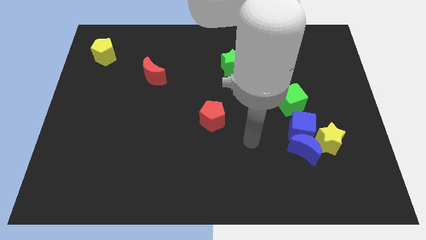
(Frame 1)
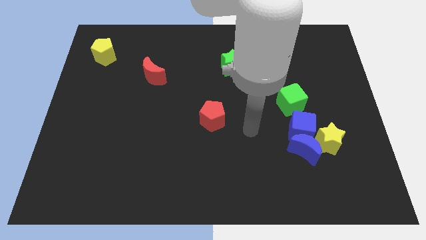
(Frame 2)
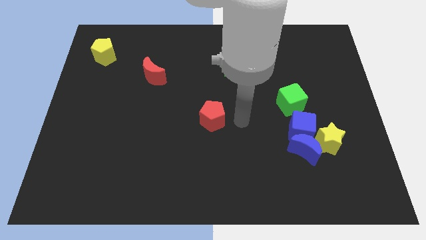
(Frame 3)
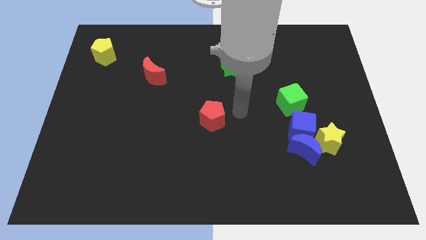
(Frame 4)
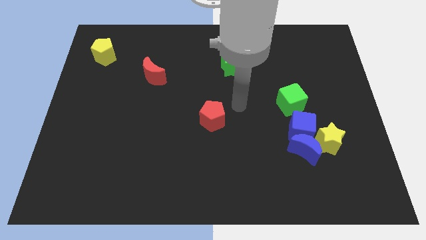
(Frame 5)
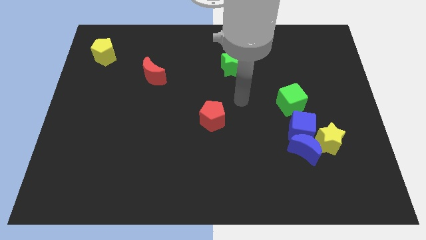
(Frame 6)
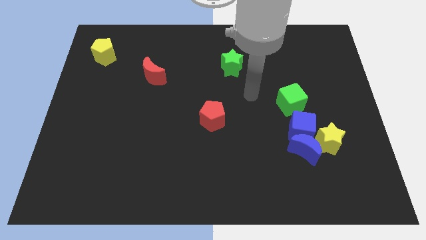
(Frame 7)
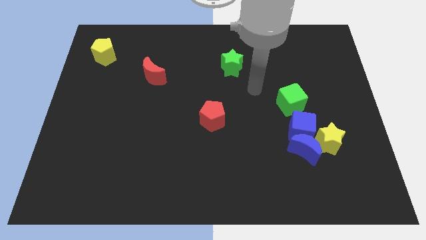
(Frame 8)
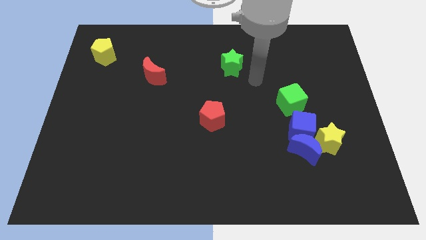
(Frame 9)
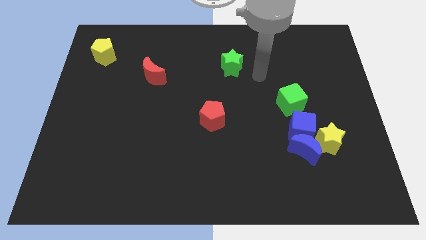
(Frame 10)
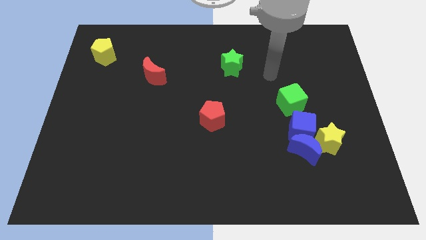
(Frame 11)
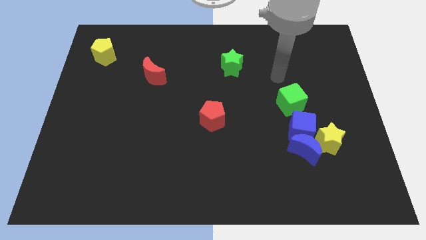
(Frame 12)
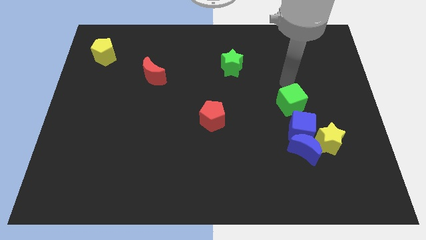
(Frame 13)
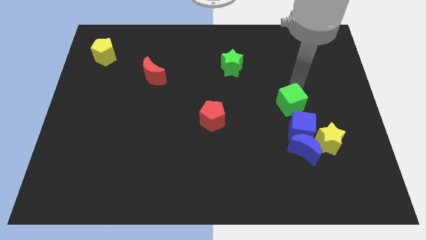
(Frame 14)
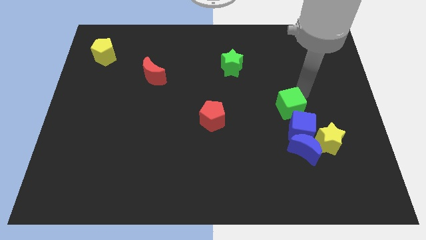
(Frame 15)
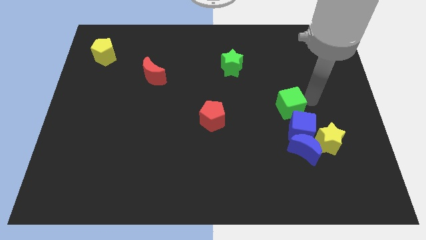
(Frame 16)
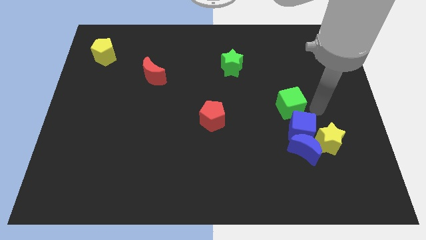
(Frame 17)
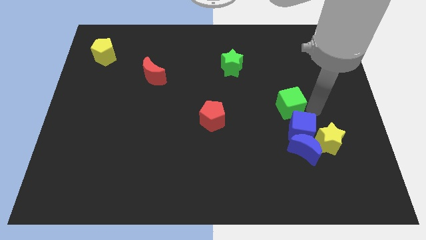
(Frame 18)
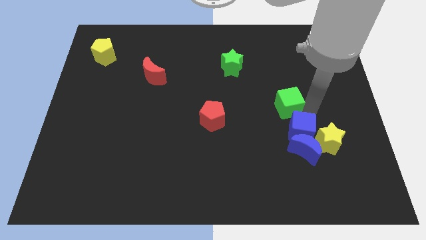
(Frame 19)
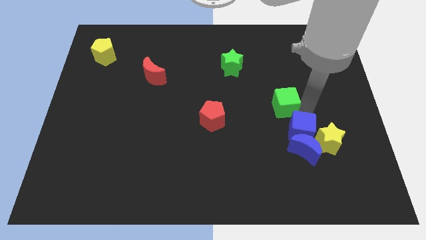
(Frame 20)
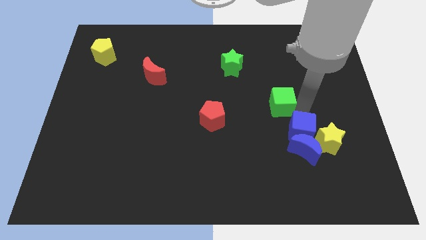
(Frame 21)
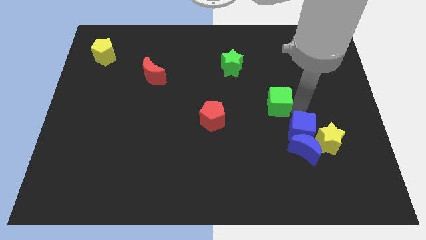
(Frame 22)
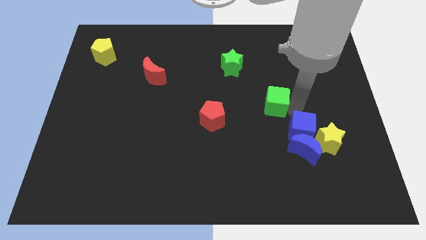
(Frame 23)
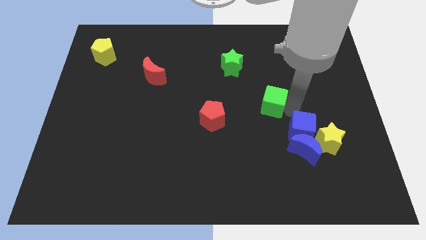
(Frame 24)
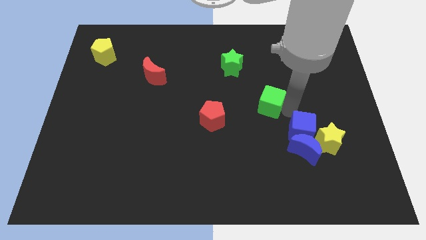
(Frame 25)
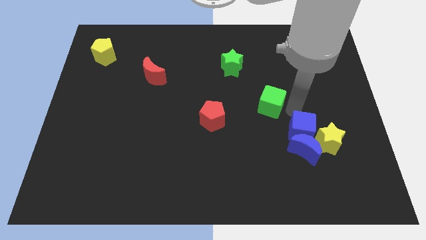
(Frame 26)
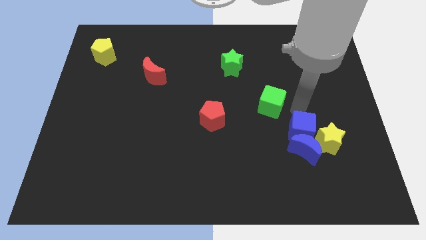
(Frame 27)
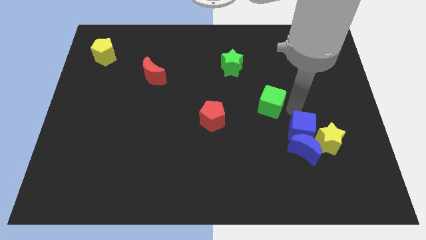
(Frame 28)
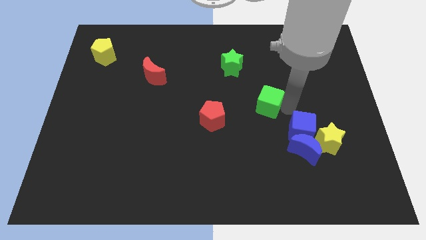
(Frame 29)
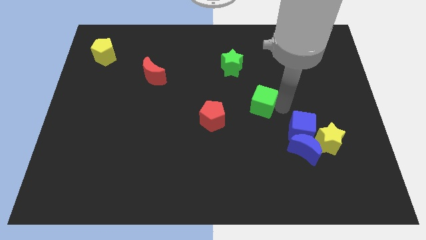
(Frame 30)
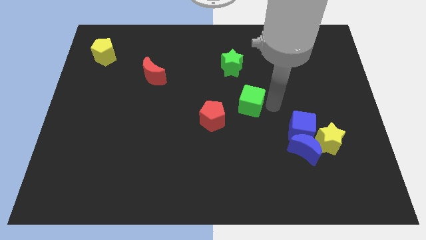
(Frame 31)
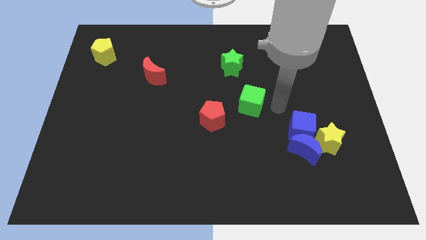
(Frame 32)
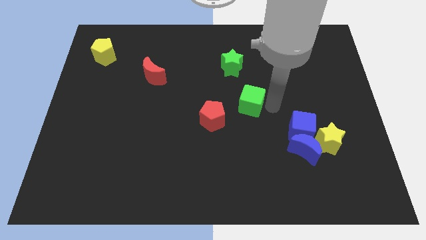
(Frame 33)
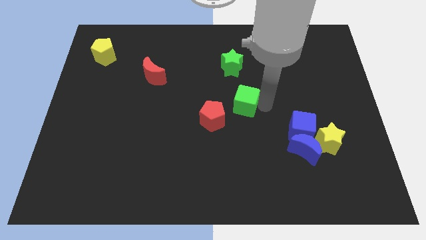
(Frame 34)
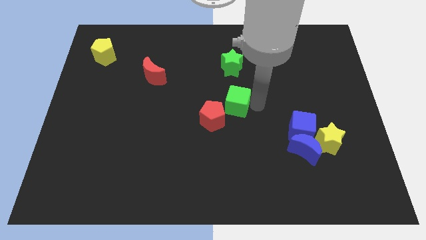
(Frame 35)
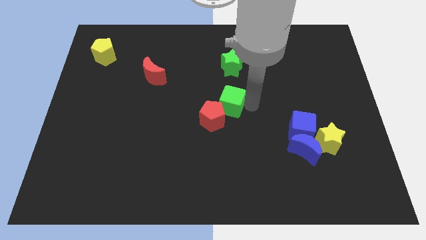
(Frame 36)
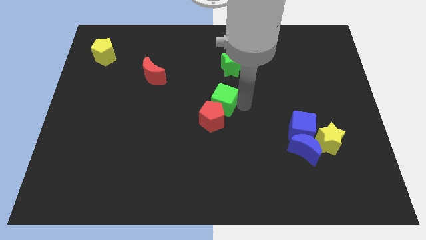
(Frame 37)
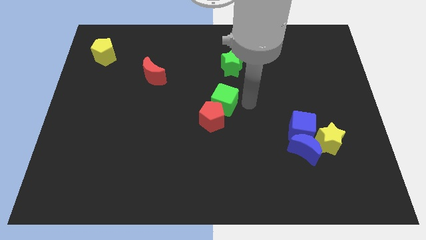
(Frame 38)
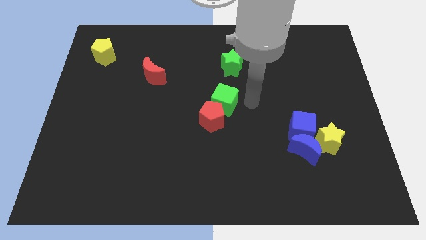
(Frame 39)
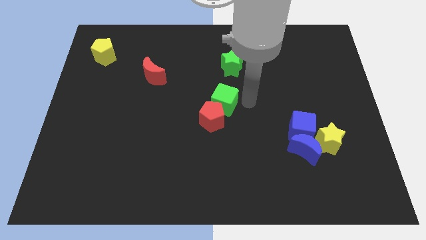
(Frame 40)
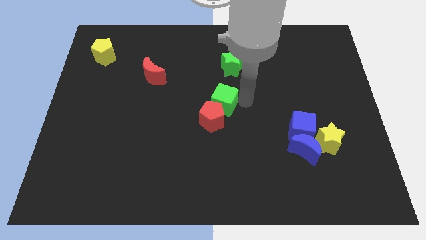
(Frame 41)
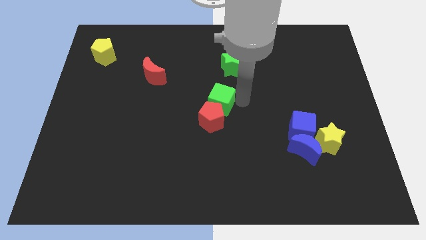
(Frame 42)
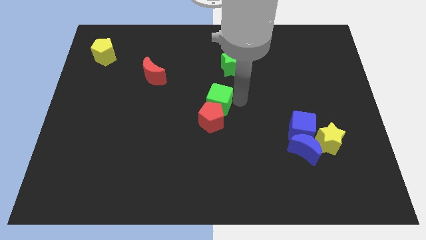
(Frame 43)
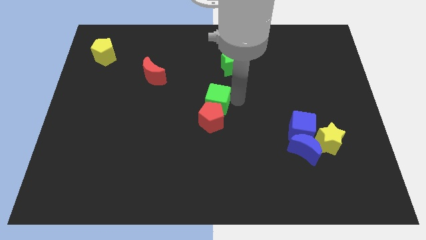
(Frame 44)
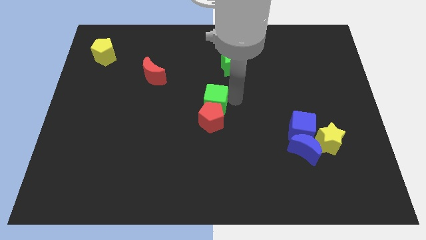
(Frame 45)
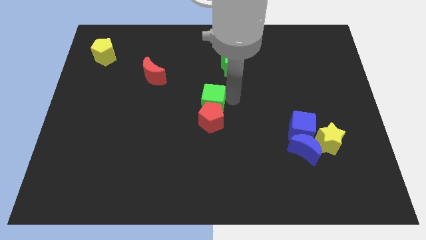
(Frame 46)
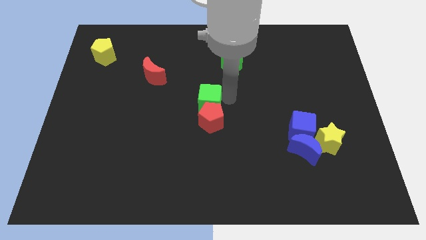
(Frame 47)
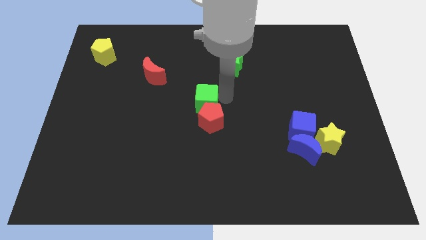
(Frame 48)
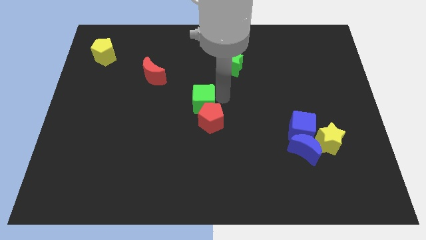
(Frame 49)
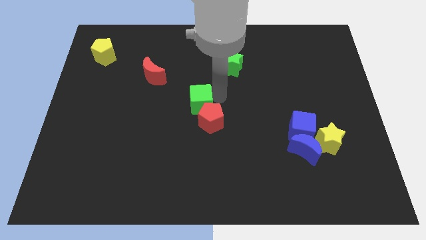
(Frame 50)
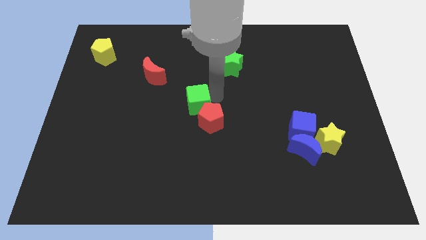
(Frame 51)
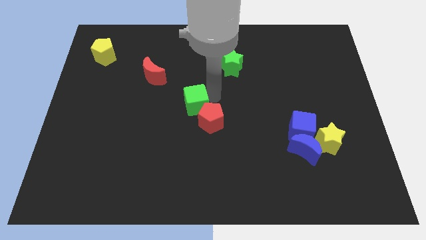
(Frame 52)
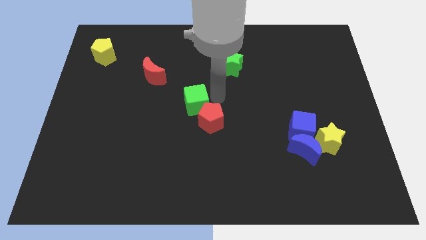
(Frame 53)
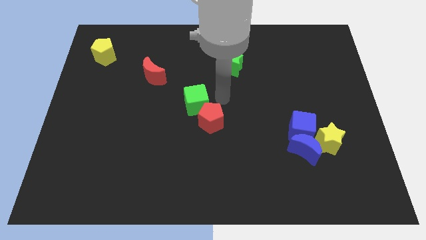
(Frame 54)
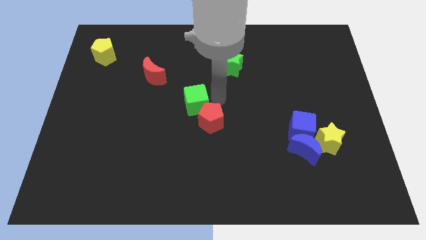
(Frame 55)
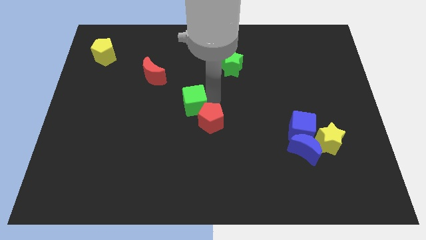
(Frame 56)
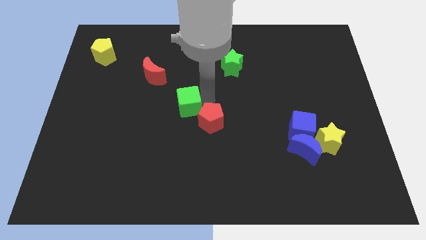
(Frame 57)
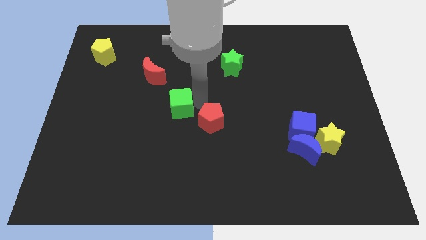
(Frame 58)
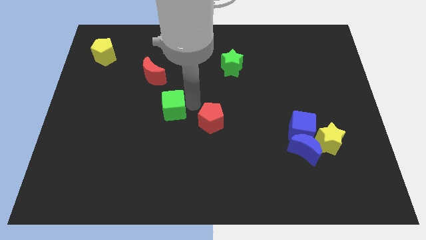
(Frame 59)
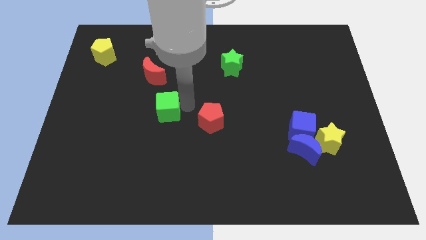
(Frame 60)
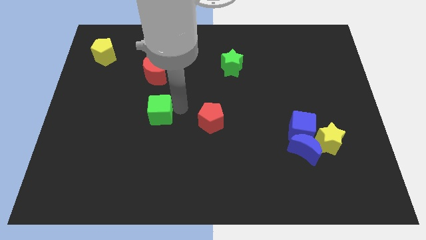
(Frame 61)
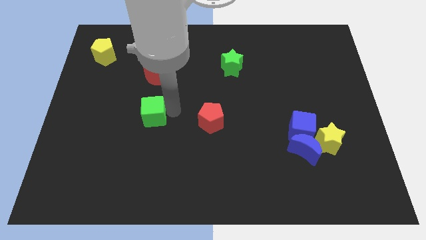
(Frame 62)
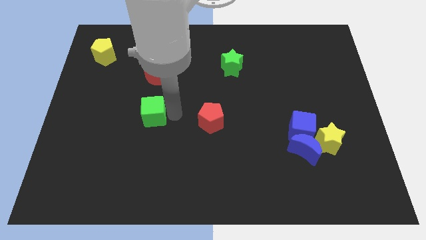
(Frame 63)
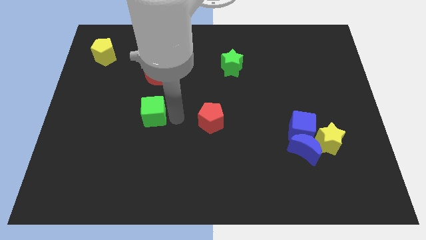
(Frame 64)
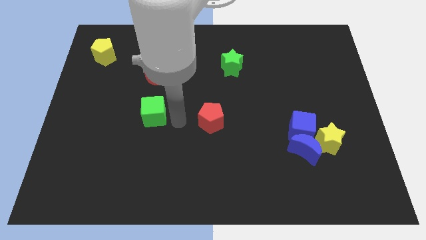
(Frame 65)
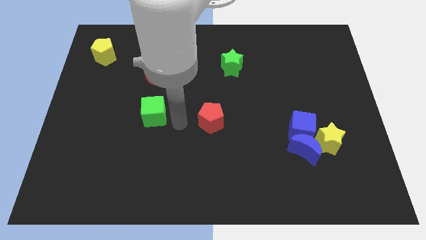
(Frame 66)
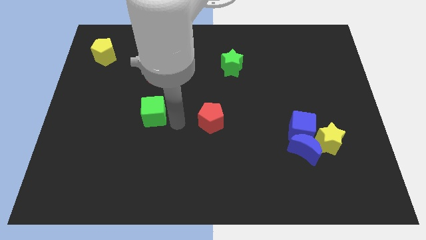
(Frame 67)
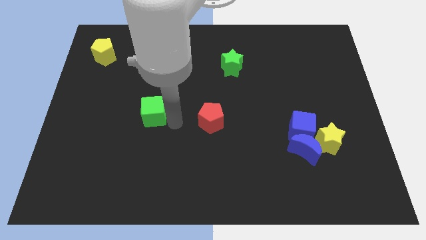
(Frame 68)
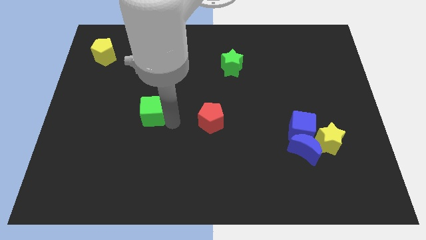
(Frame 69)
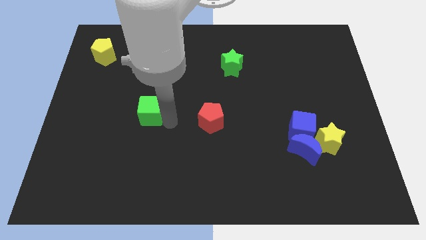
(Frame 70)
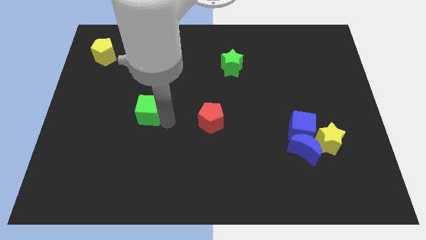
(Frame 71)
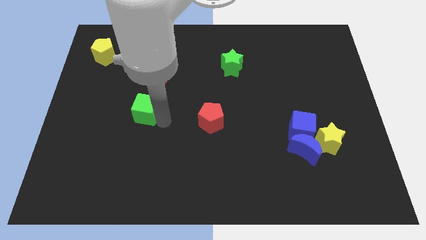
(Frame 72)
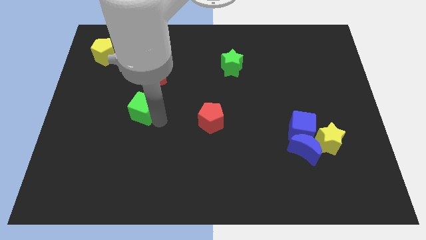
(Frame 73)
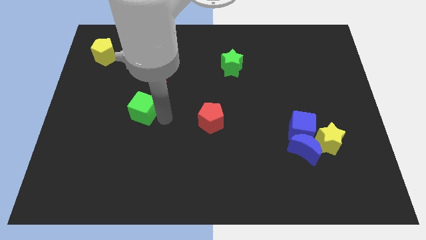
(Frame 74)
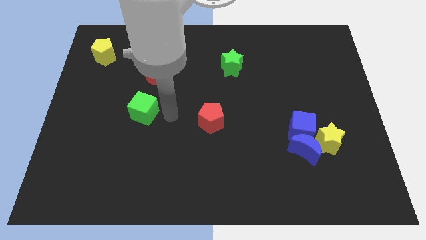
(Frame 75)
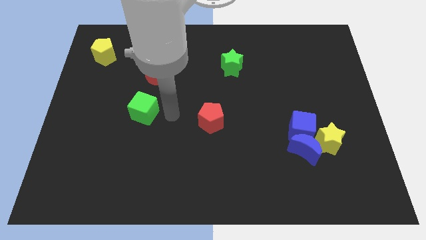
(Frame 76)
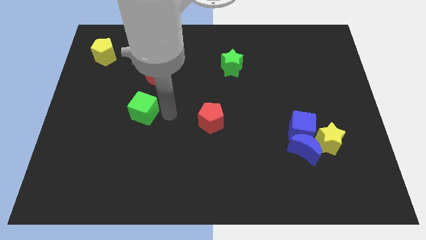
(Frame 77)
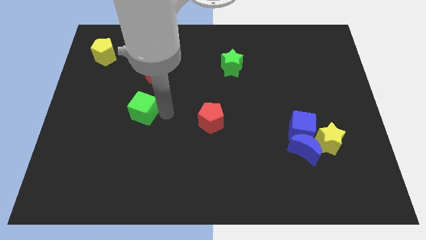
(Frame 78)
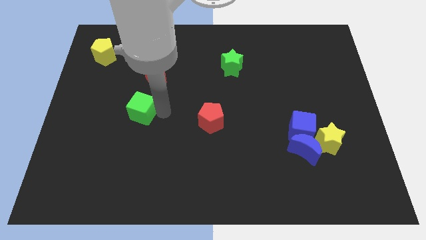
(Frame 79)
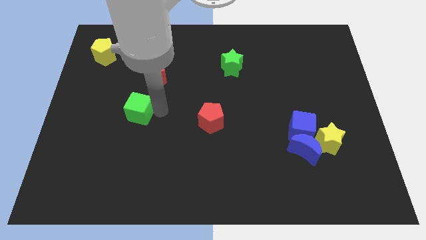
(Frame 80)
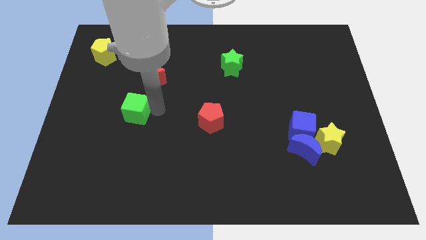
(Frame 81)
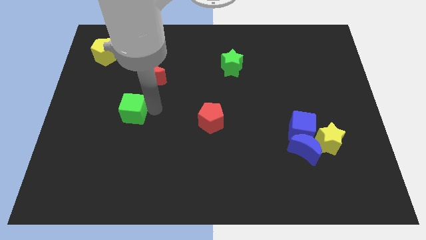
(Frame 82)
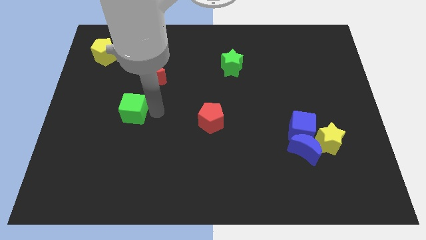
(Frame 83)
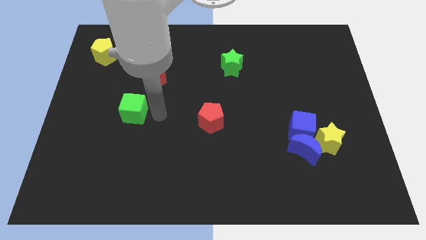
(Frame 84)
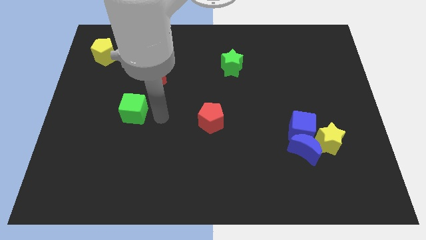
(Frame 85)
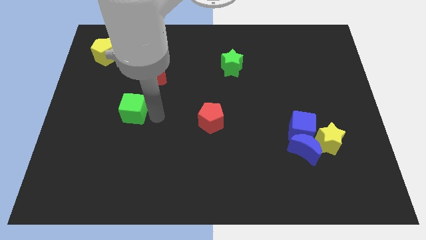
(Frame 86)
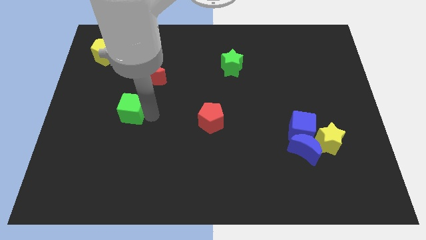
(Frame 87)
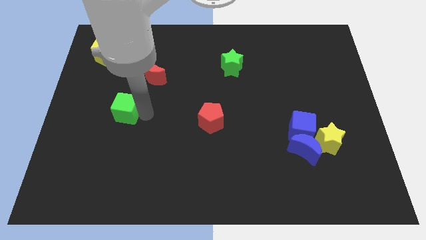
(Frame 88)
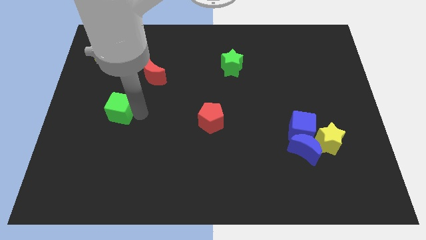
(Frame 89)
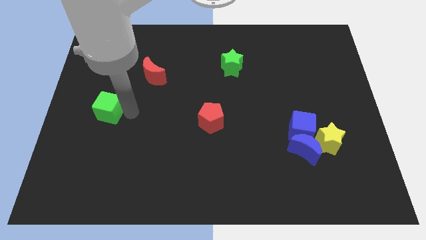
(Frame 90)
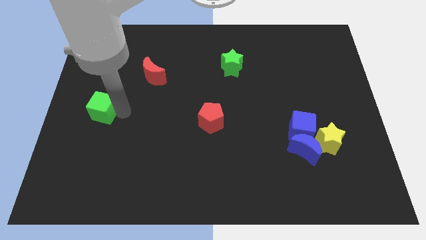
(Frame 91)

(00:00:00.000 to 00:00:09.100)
move the green cube to the center left
